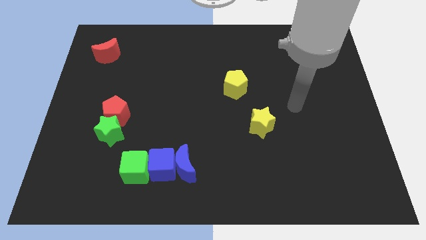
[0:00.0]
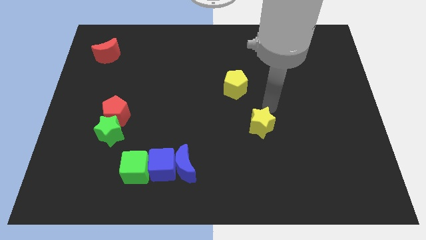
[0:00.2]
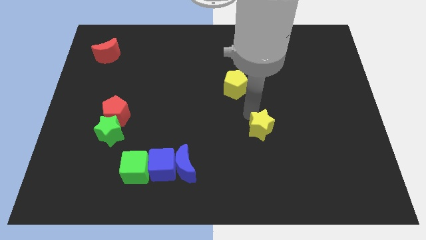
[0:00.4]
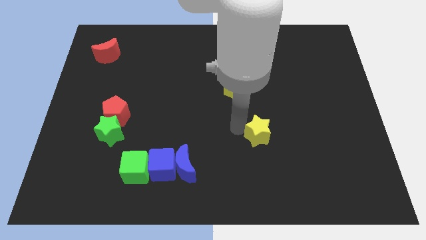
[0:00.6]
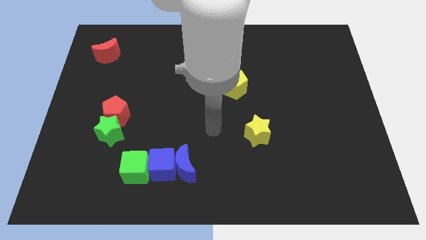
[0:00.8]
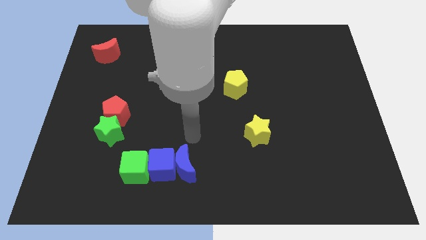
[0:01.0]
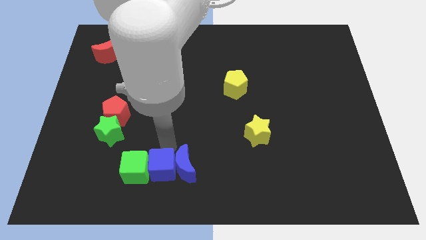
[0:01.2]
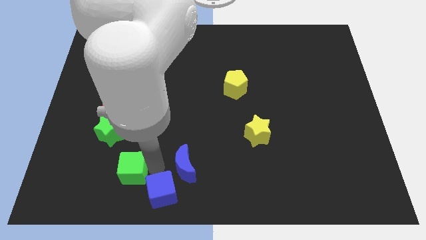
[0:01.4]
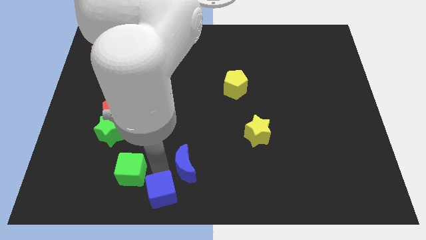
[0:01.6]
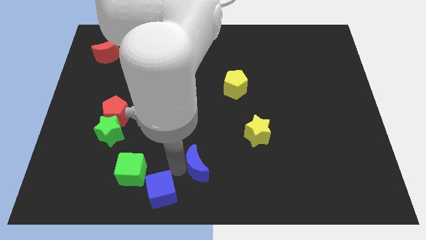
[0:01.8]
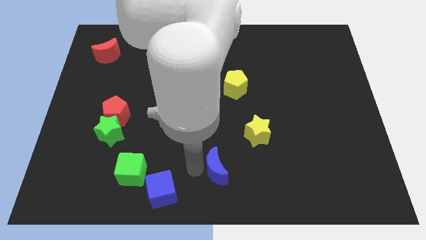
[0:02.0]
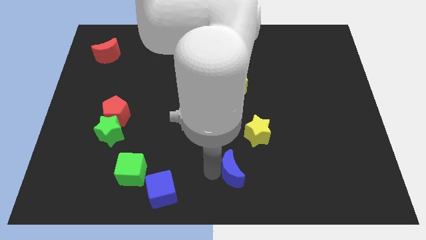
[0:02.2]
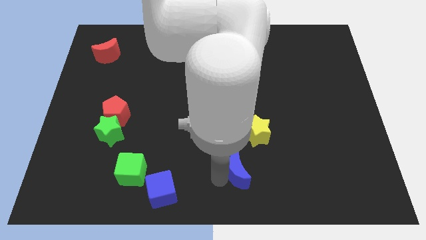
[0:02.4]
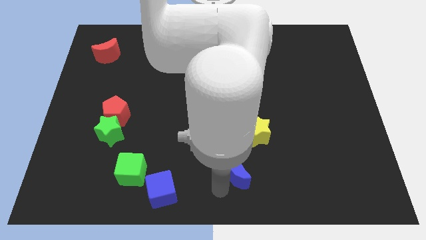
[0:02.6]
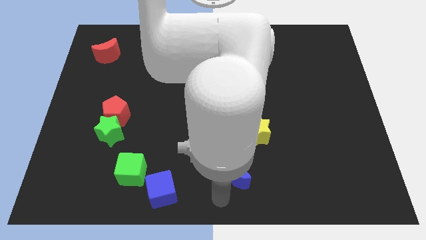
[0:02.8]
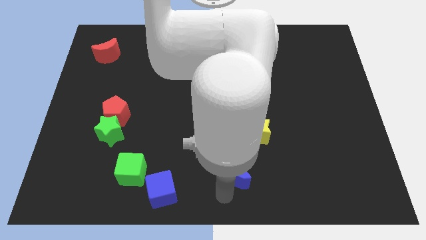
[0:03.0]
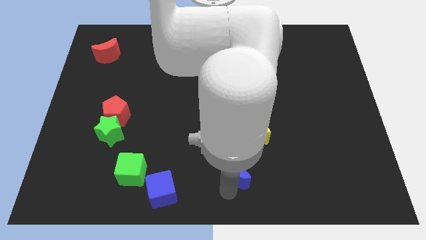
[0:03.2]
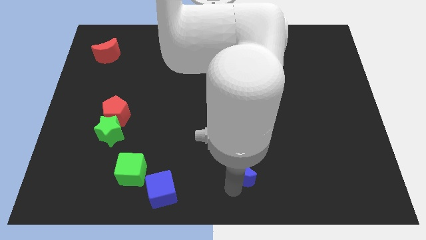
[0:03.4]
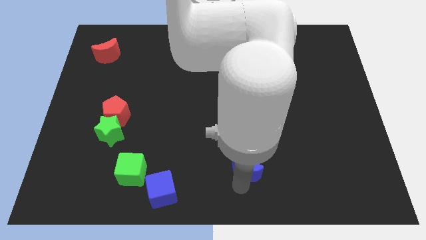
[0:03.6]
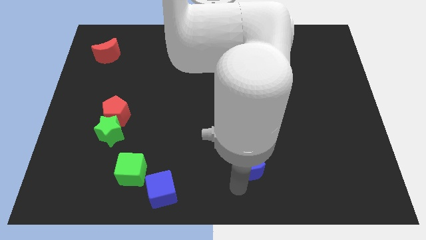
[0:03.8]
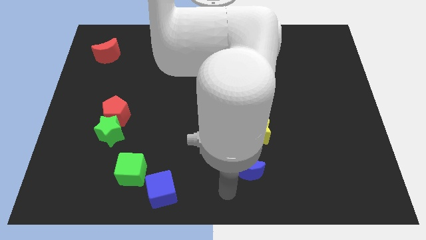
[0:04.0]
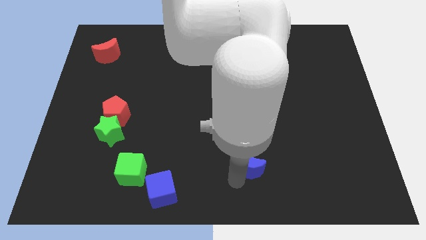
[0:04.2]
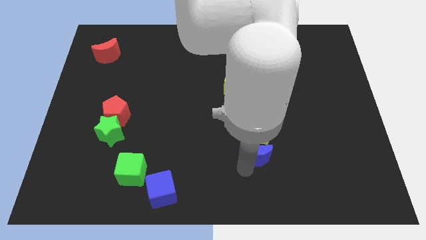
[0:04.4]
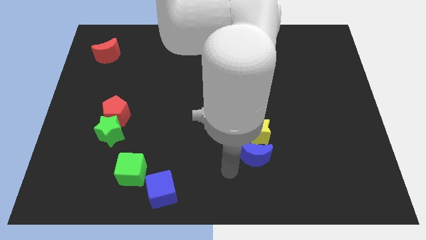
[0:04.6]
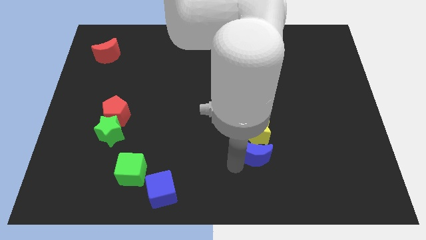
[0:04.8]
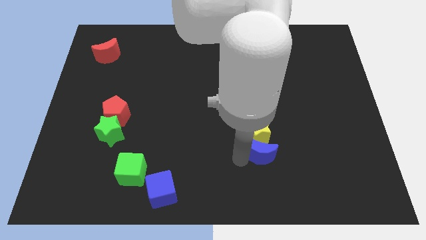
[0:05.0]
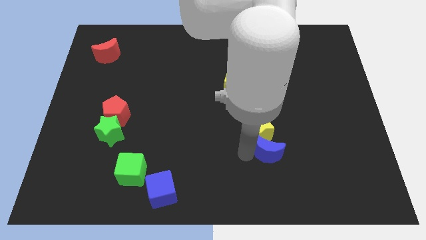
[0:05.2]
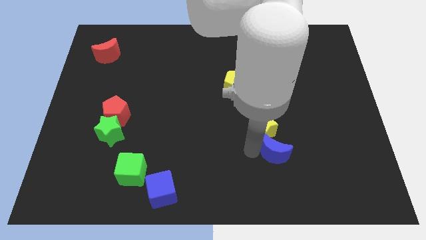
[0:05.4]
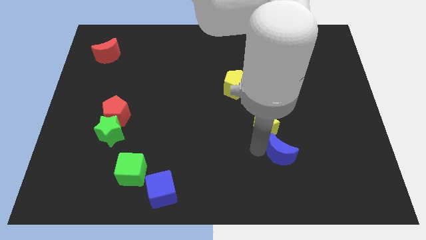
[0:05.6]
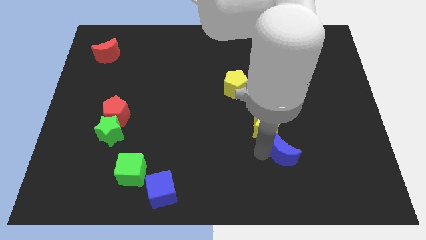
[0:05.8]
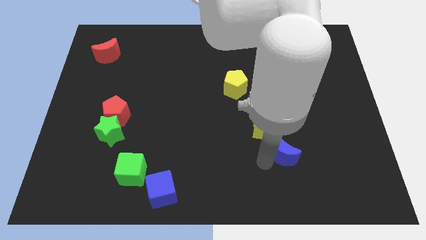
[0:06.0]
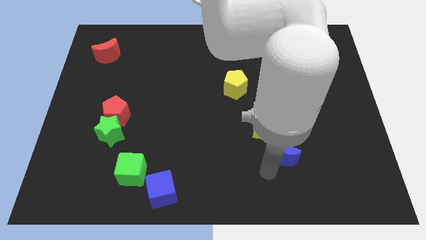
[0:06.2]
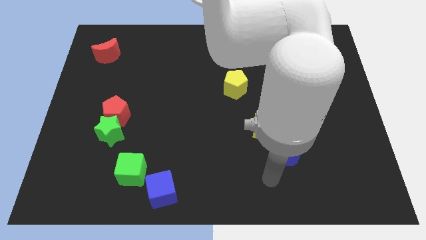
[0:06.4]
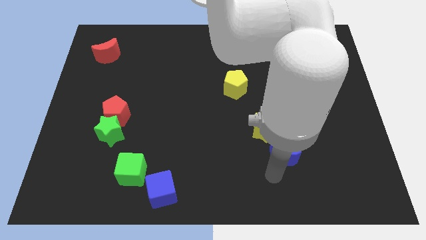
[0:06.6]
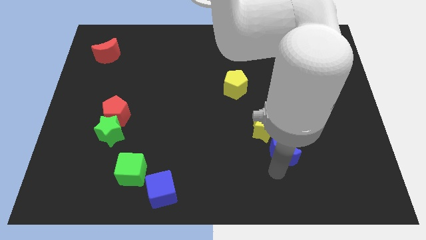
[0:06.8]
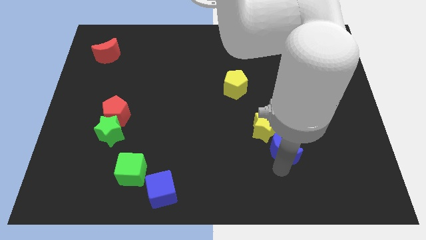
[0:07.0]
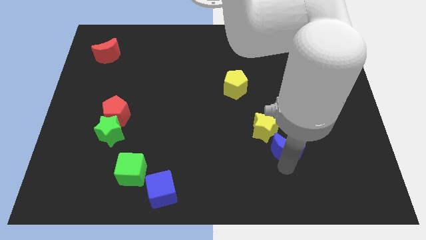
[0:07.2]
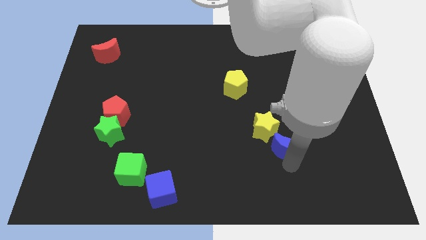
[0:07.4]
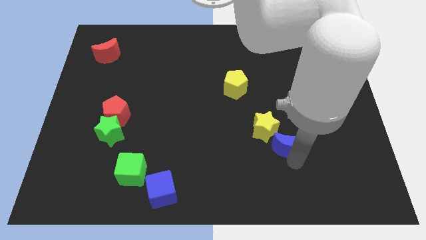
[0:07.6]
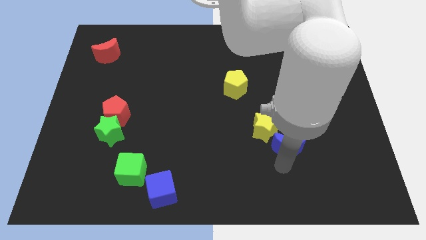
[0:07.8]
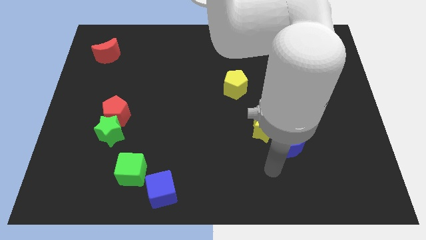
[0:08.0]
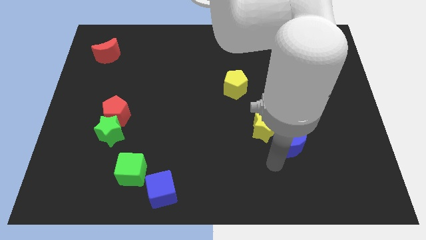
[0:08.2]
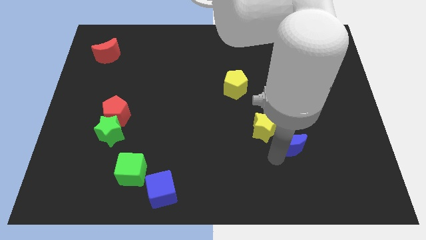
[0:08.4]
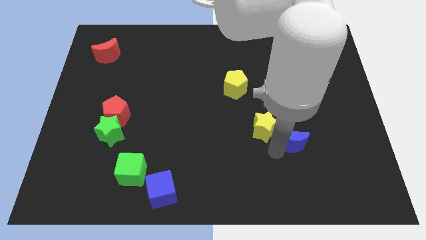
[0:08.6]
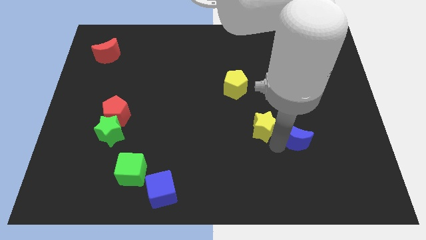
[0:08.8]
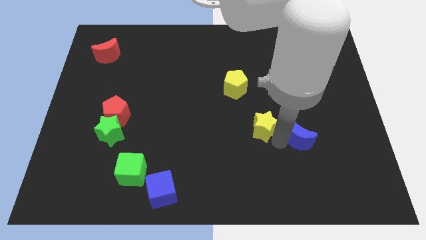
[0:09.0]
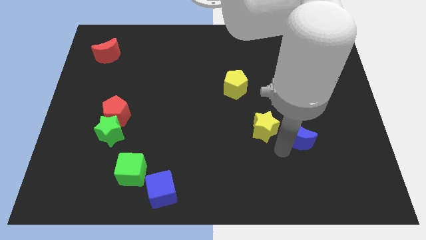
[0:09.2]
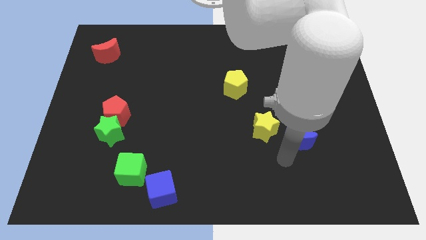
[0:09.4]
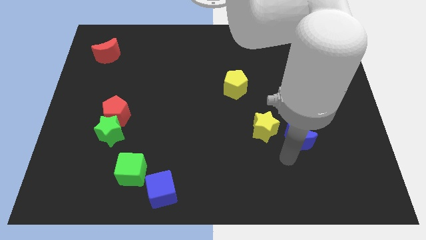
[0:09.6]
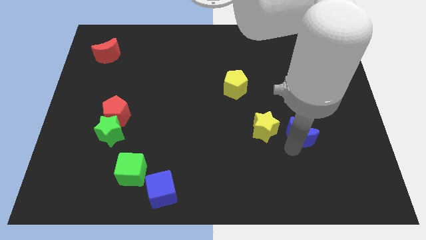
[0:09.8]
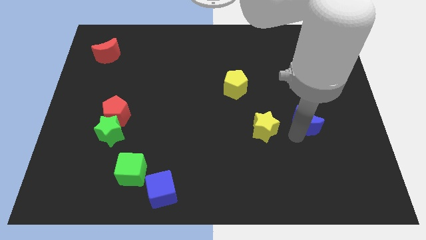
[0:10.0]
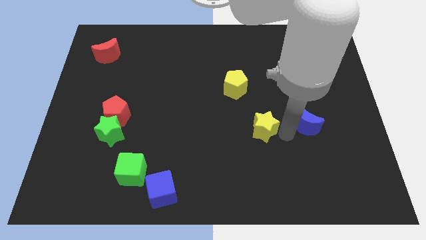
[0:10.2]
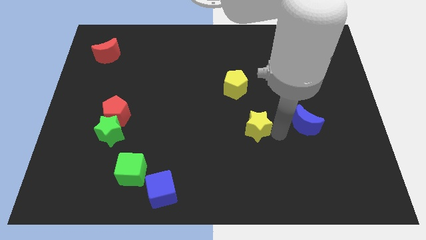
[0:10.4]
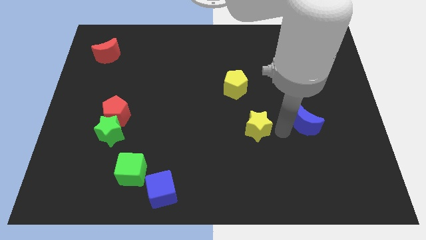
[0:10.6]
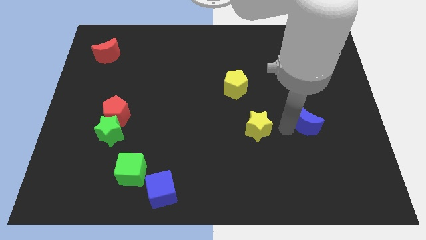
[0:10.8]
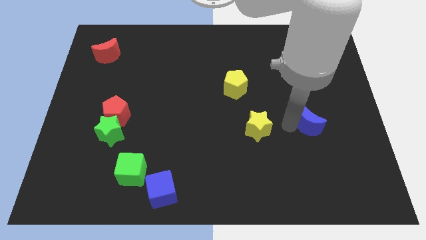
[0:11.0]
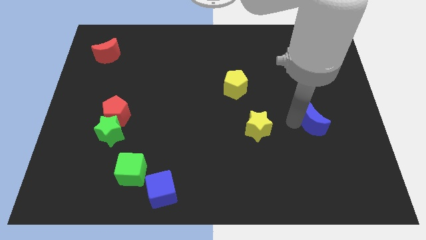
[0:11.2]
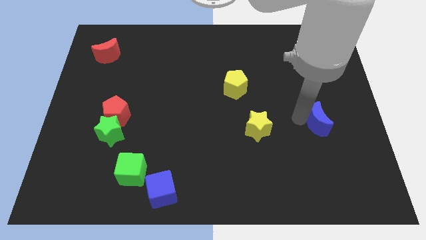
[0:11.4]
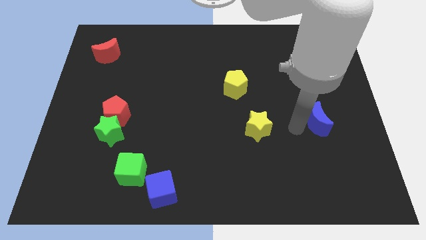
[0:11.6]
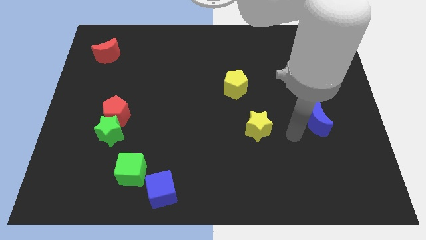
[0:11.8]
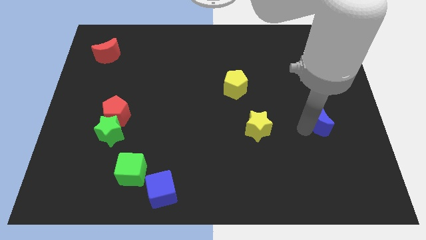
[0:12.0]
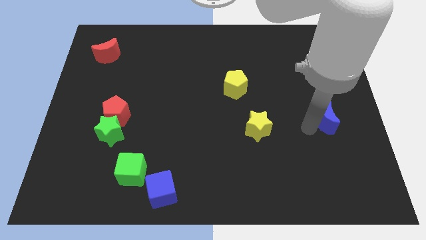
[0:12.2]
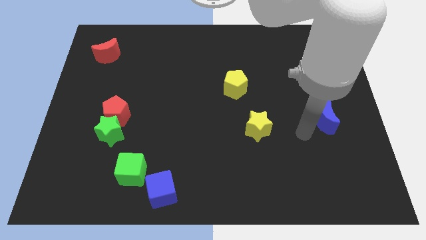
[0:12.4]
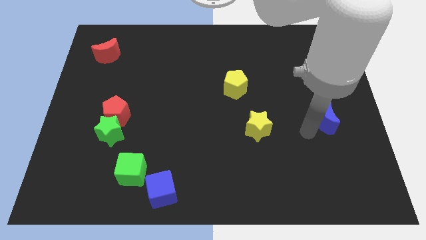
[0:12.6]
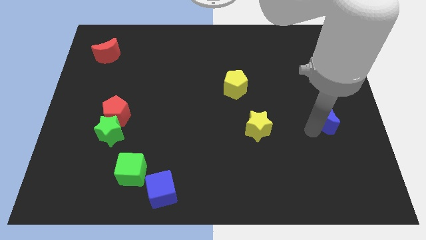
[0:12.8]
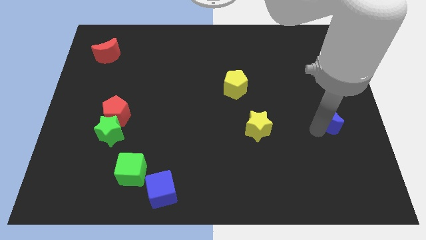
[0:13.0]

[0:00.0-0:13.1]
slide the blue moon to the right side
